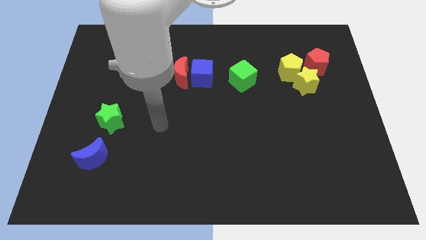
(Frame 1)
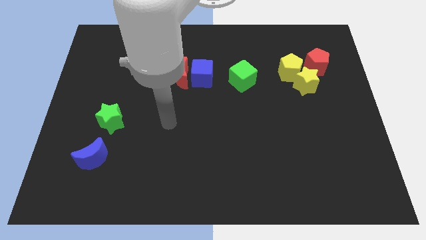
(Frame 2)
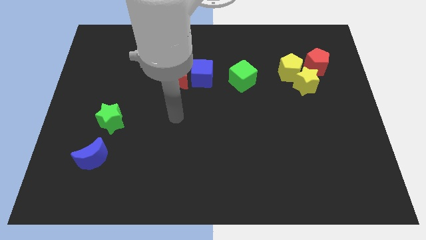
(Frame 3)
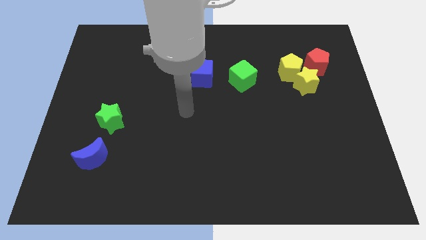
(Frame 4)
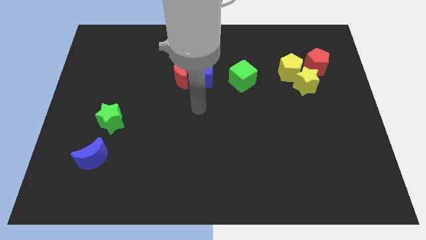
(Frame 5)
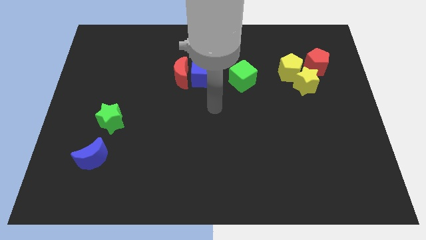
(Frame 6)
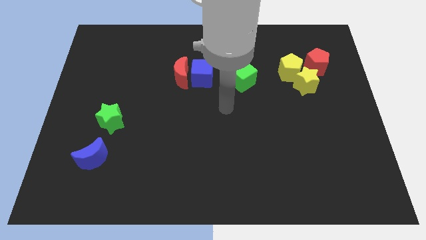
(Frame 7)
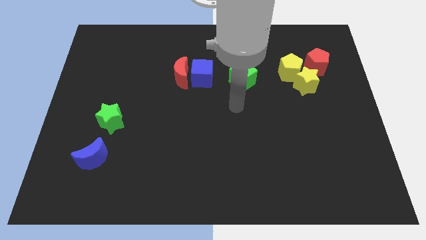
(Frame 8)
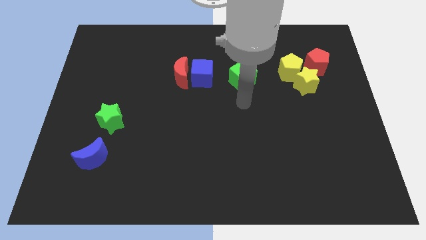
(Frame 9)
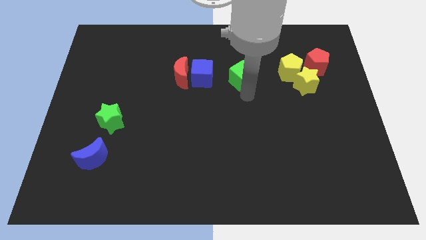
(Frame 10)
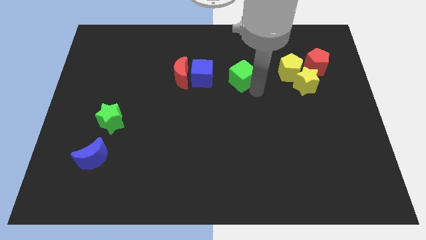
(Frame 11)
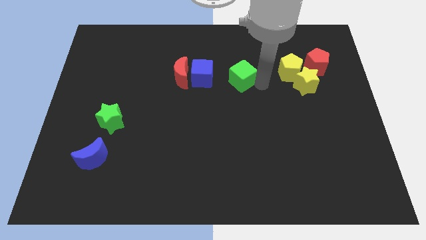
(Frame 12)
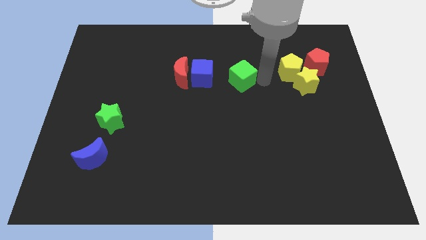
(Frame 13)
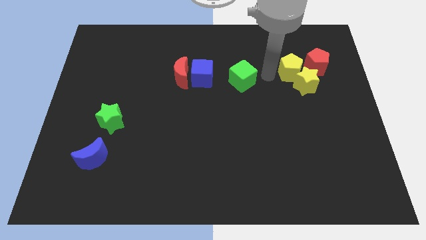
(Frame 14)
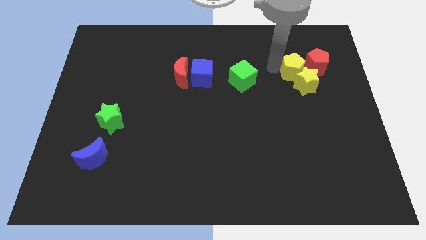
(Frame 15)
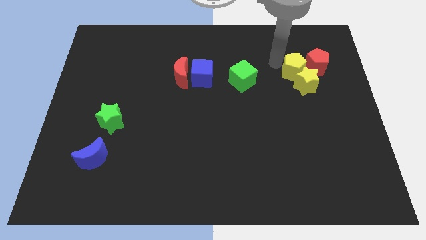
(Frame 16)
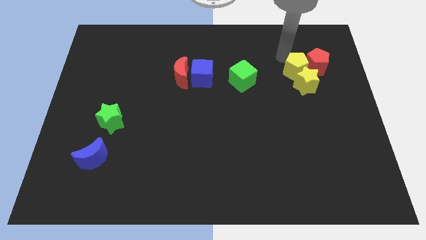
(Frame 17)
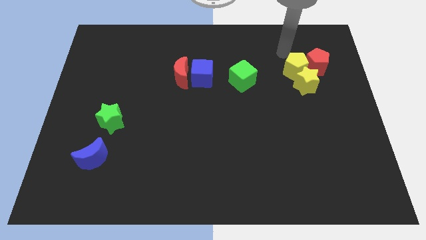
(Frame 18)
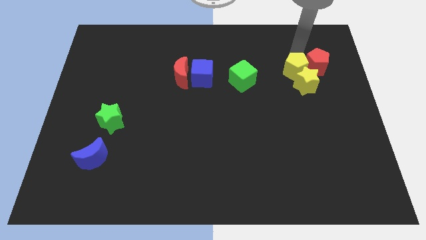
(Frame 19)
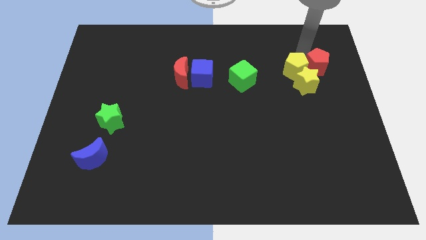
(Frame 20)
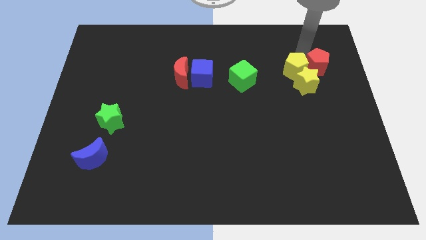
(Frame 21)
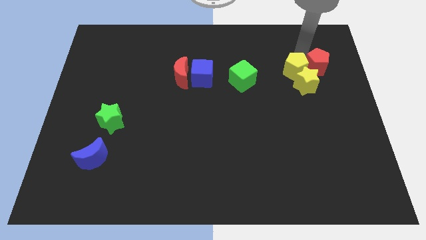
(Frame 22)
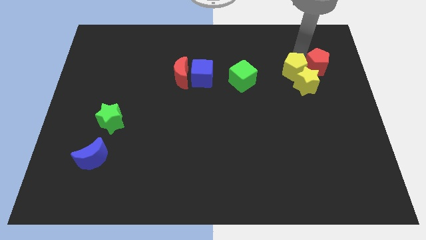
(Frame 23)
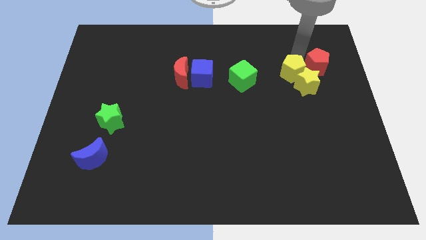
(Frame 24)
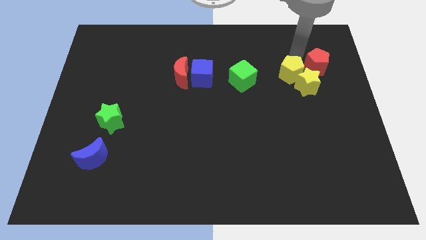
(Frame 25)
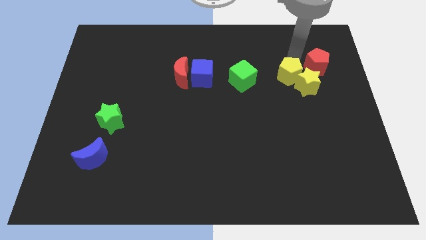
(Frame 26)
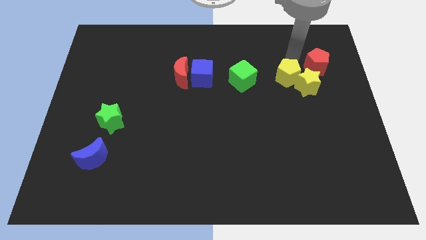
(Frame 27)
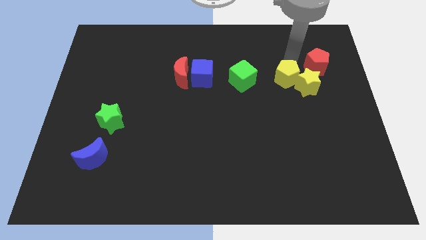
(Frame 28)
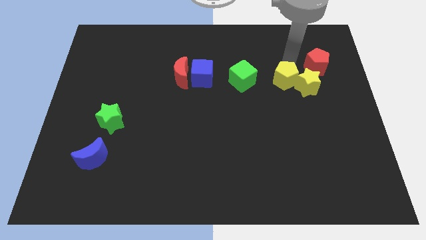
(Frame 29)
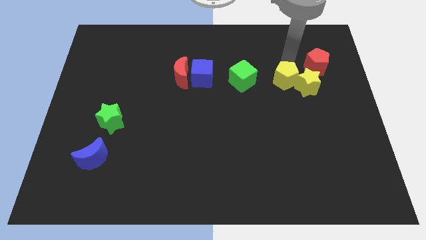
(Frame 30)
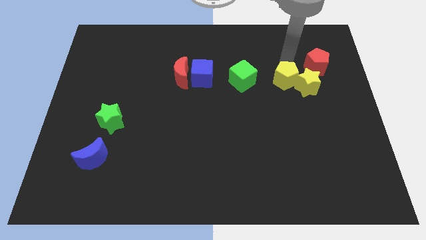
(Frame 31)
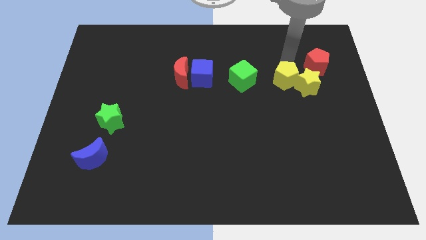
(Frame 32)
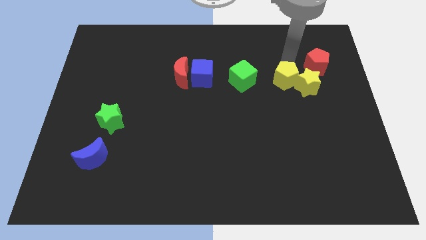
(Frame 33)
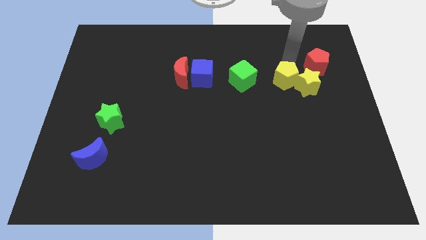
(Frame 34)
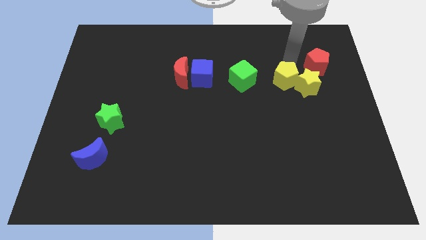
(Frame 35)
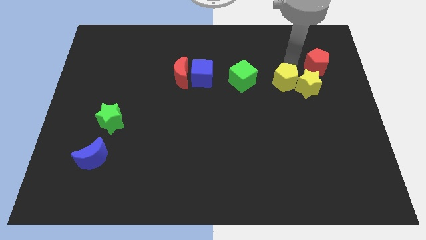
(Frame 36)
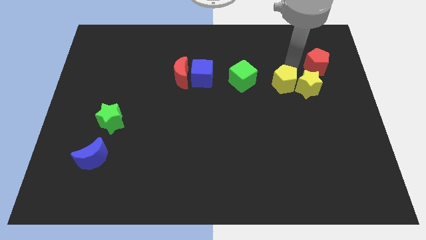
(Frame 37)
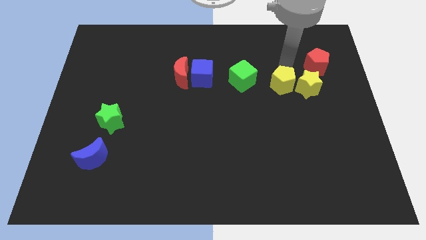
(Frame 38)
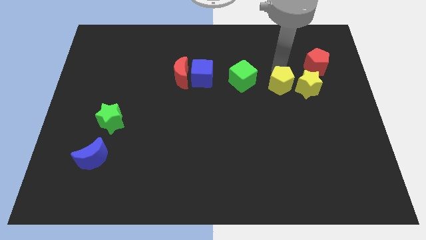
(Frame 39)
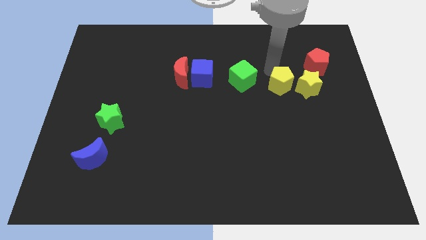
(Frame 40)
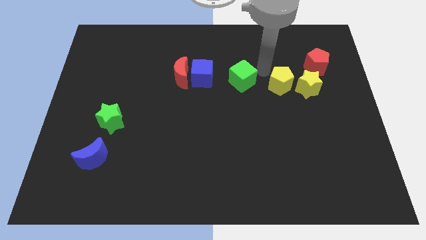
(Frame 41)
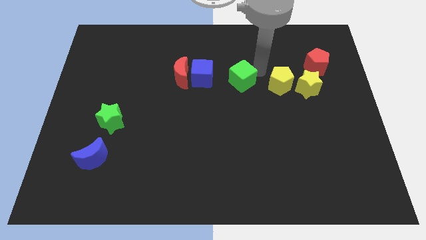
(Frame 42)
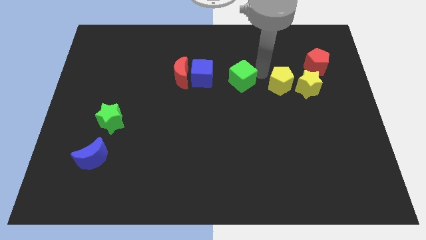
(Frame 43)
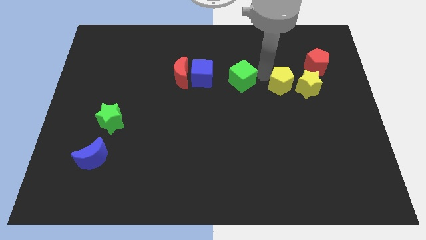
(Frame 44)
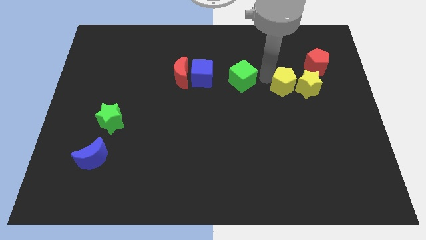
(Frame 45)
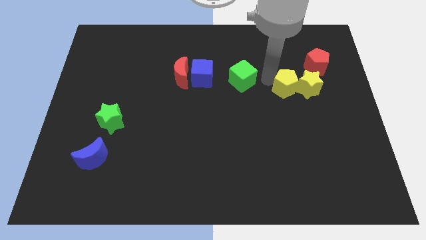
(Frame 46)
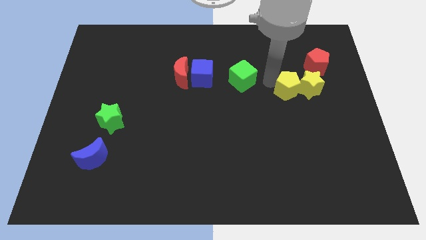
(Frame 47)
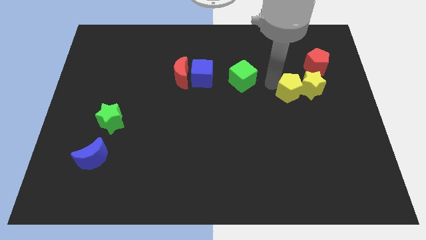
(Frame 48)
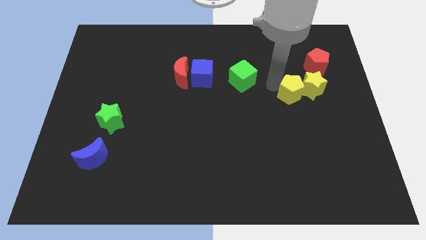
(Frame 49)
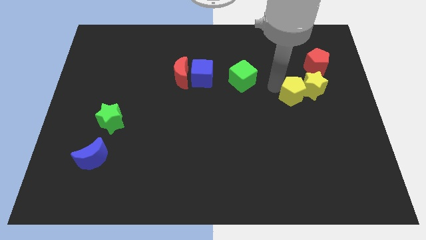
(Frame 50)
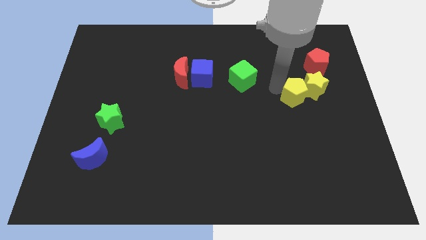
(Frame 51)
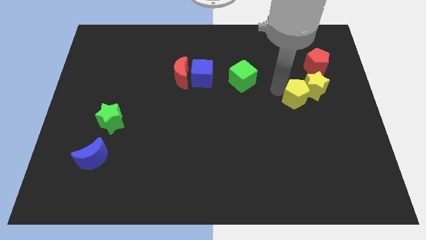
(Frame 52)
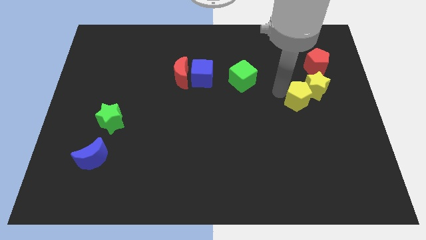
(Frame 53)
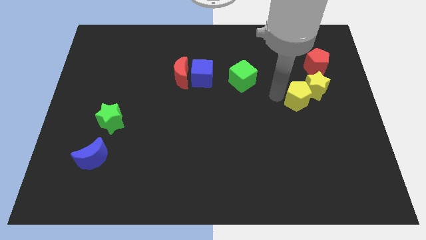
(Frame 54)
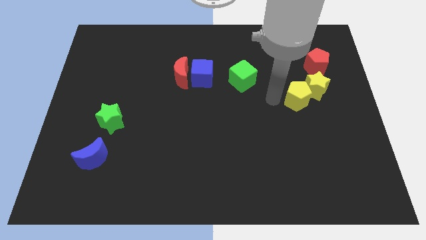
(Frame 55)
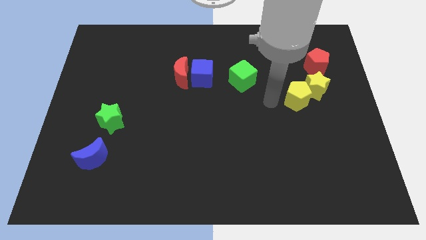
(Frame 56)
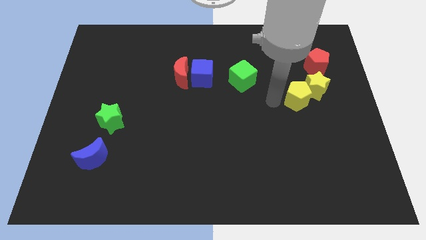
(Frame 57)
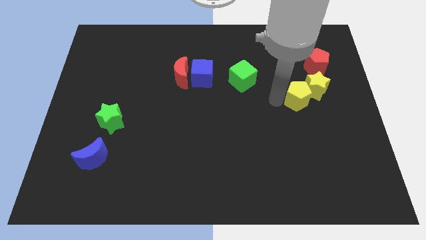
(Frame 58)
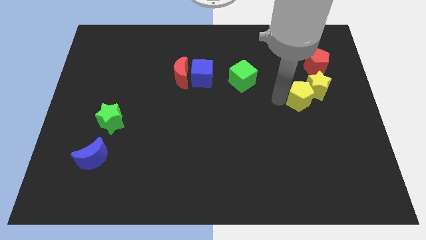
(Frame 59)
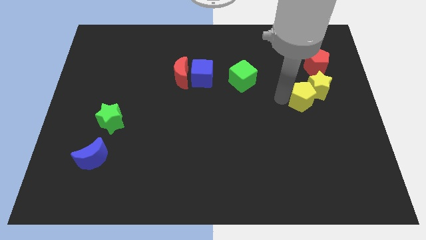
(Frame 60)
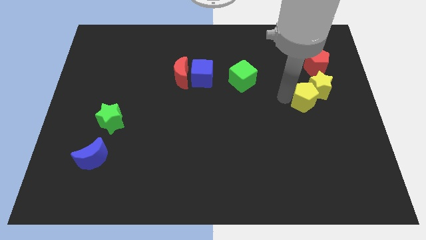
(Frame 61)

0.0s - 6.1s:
move the yellow pentagon below the red pentagon
